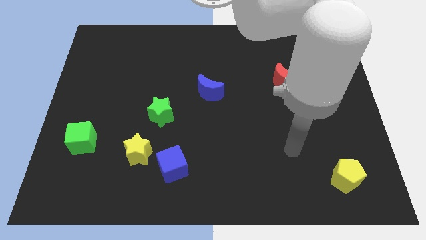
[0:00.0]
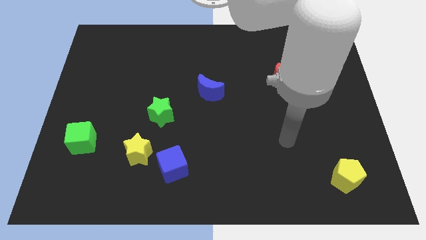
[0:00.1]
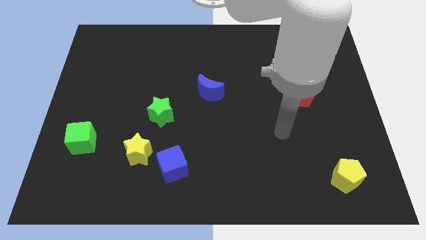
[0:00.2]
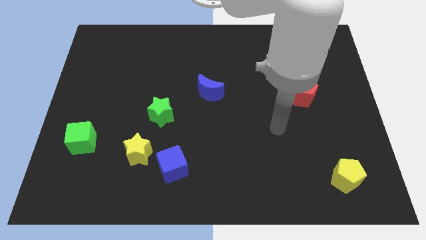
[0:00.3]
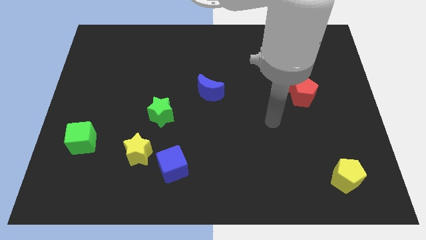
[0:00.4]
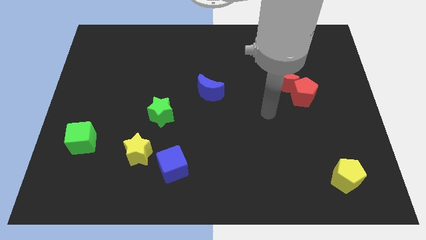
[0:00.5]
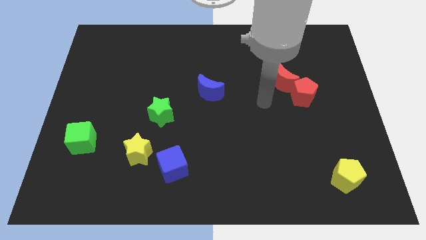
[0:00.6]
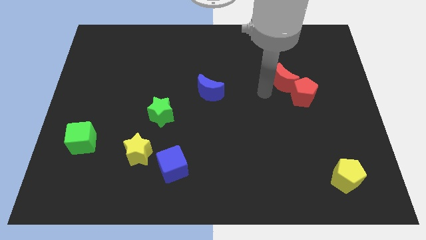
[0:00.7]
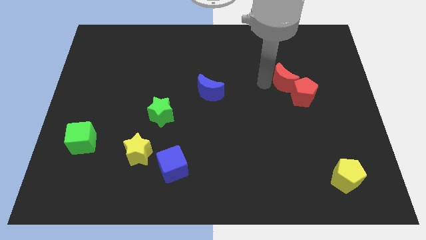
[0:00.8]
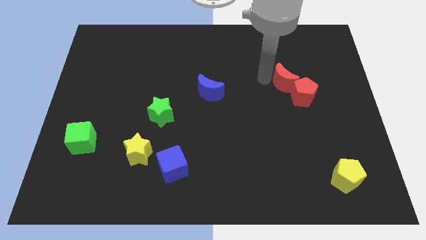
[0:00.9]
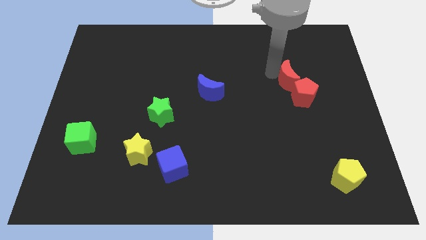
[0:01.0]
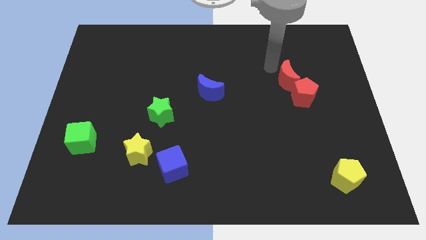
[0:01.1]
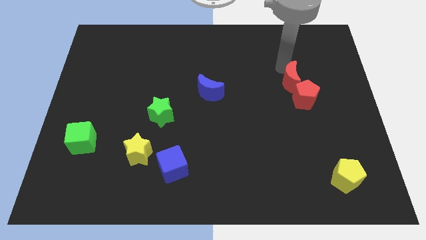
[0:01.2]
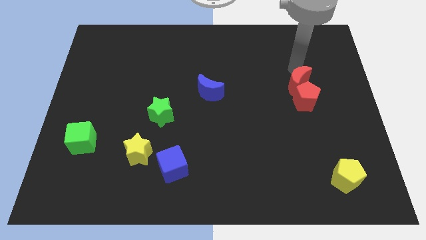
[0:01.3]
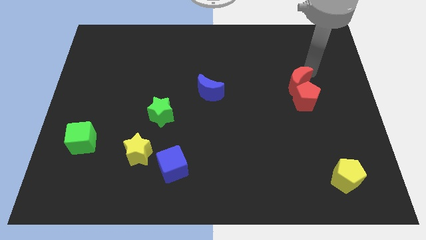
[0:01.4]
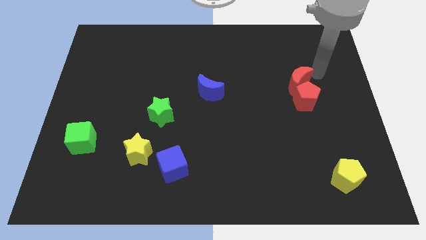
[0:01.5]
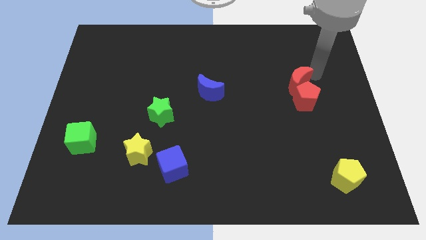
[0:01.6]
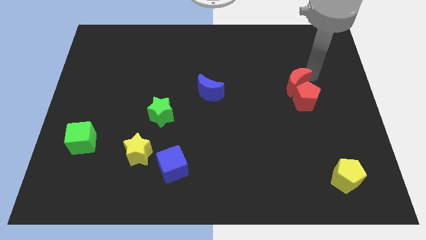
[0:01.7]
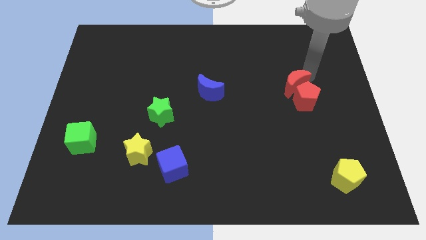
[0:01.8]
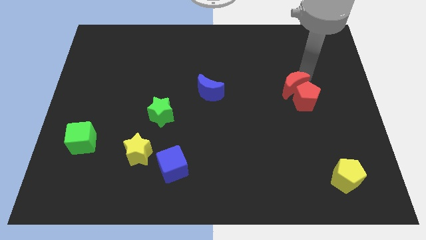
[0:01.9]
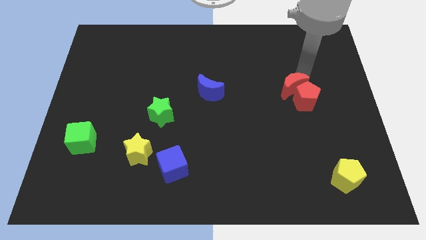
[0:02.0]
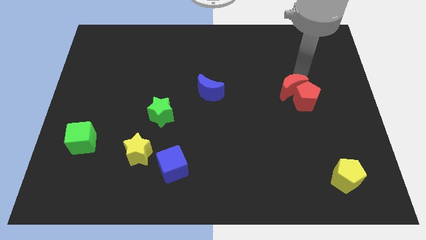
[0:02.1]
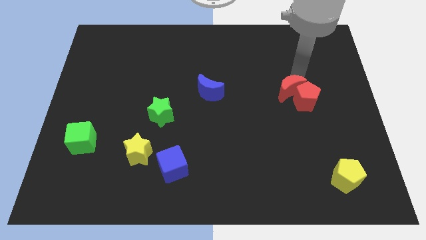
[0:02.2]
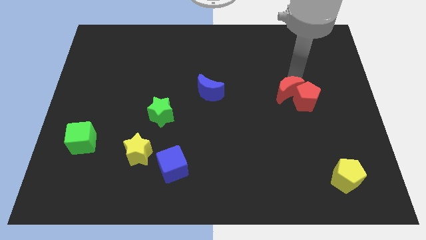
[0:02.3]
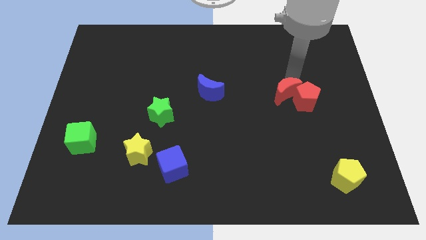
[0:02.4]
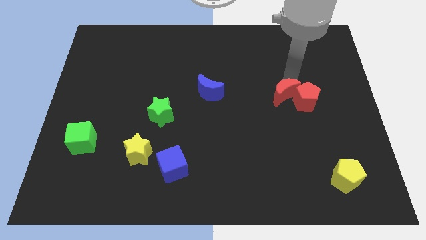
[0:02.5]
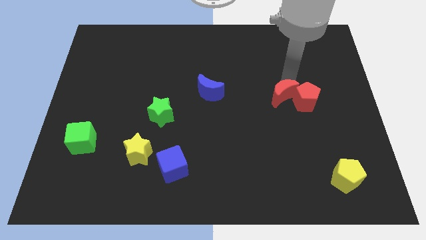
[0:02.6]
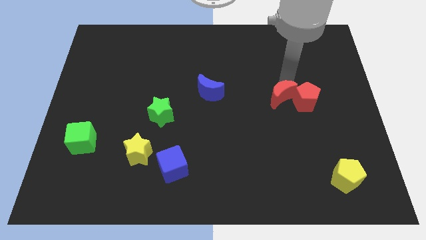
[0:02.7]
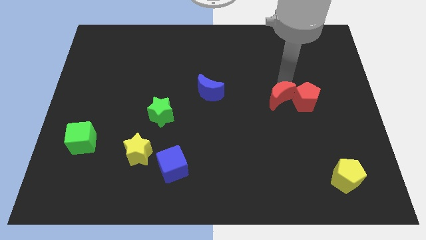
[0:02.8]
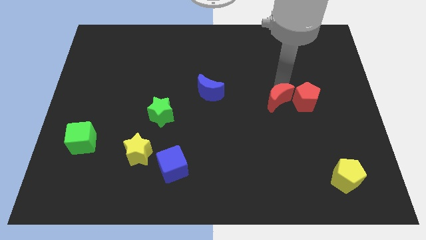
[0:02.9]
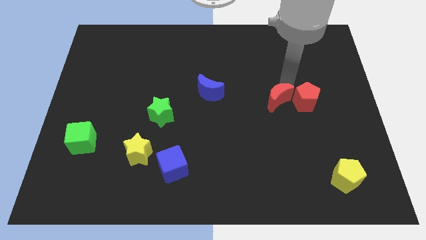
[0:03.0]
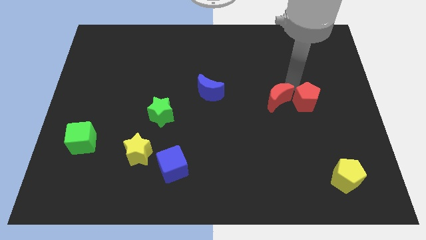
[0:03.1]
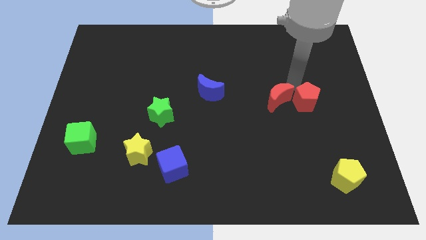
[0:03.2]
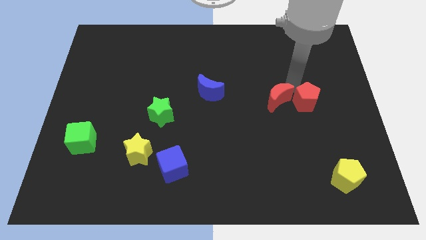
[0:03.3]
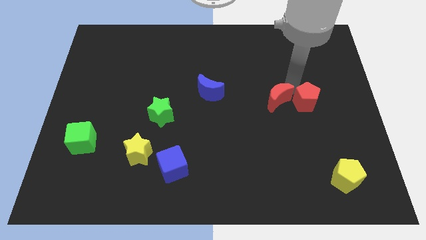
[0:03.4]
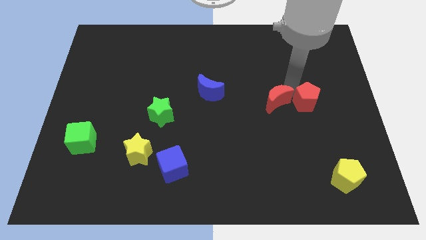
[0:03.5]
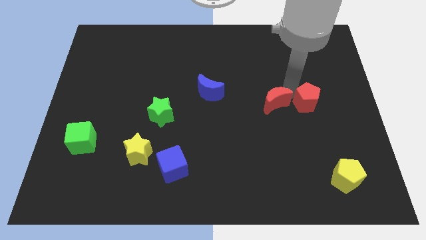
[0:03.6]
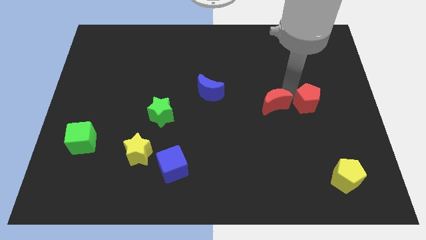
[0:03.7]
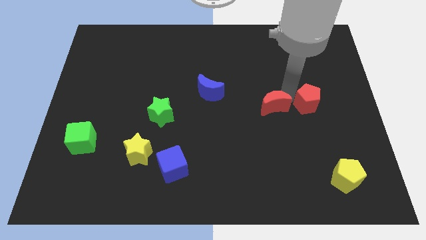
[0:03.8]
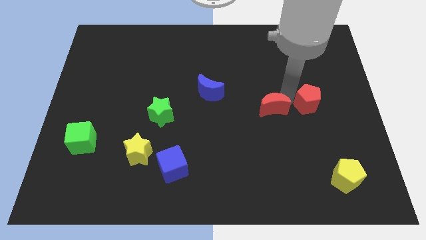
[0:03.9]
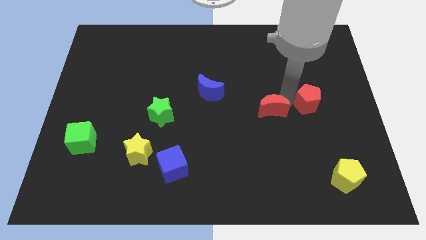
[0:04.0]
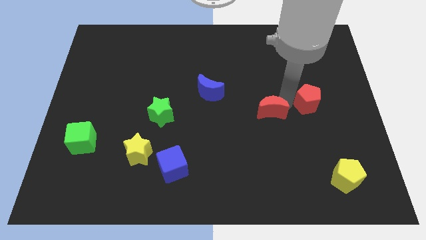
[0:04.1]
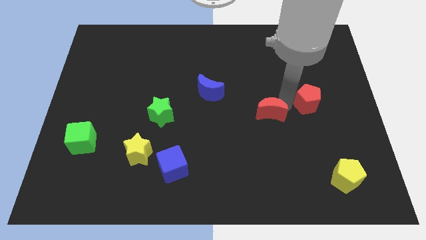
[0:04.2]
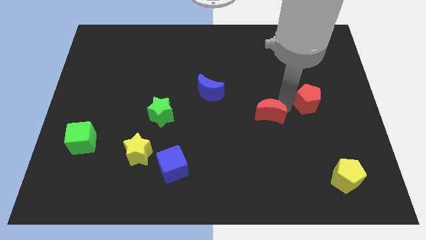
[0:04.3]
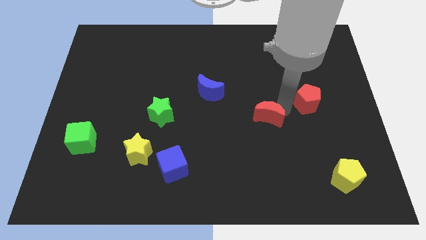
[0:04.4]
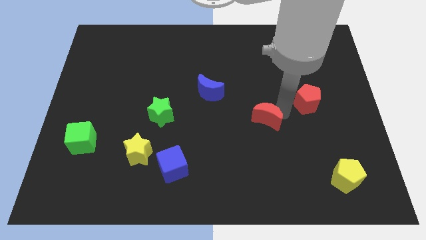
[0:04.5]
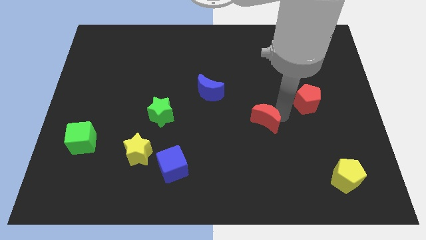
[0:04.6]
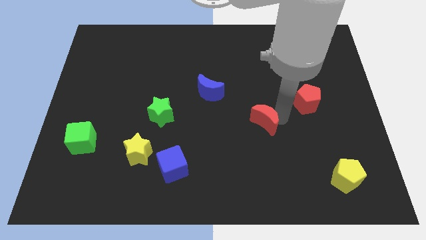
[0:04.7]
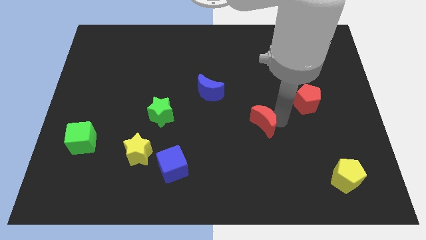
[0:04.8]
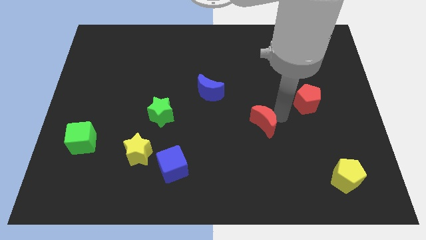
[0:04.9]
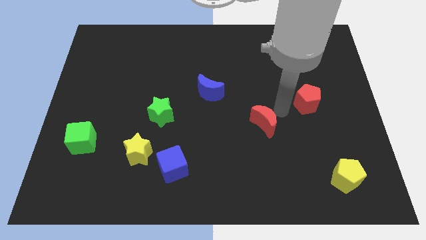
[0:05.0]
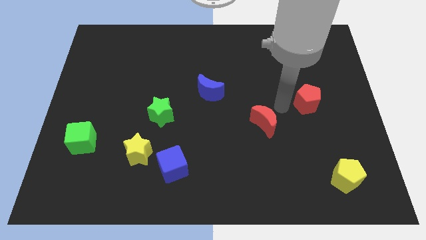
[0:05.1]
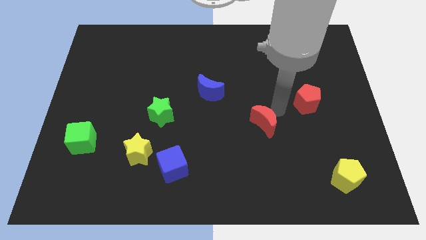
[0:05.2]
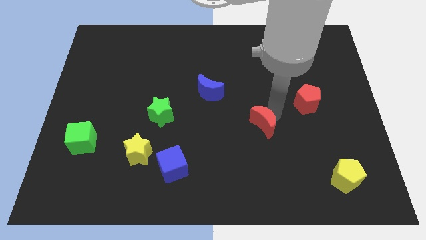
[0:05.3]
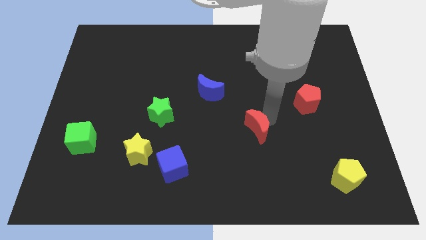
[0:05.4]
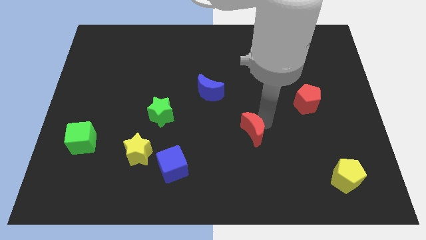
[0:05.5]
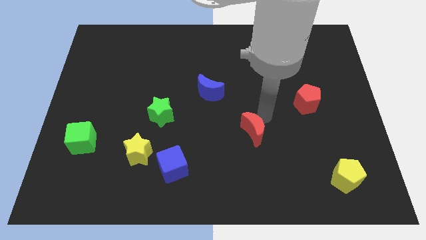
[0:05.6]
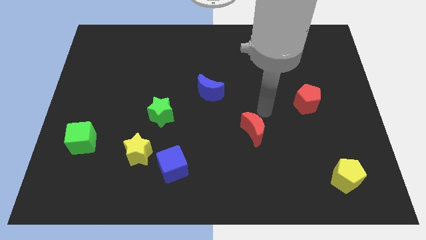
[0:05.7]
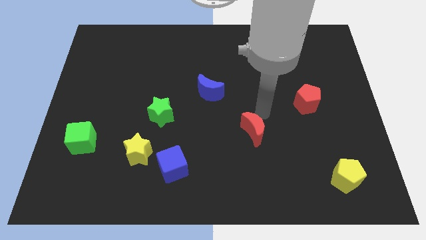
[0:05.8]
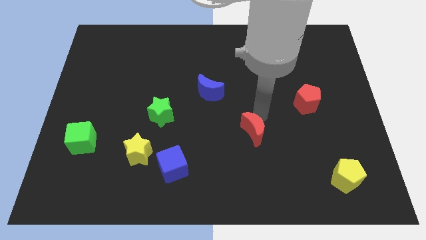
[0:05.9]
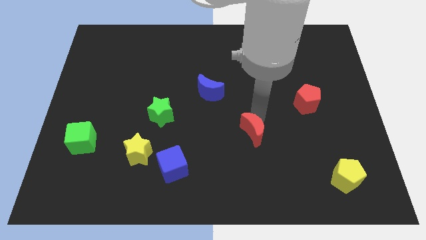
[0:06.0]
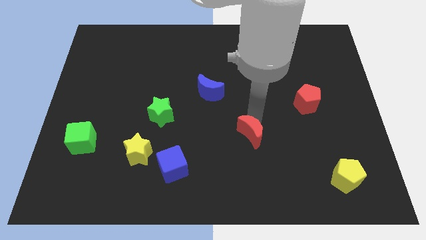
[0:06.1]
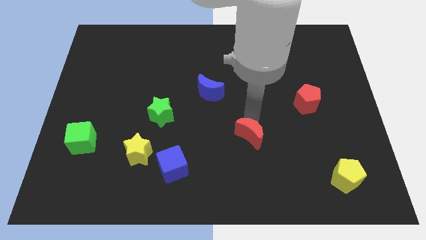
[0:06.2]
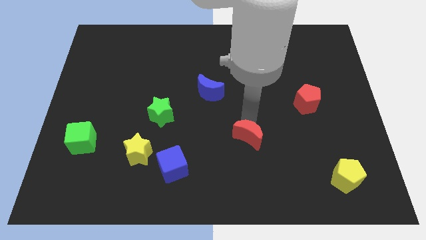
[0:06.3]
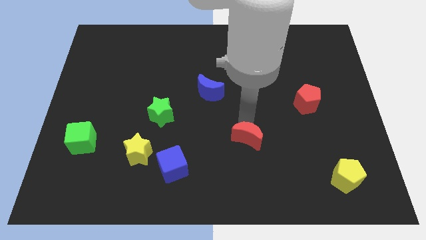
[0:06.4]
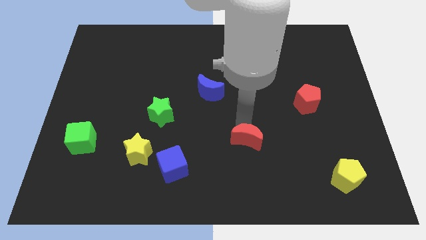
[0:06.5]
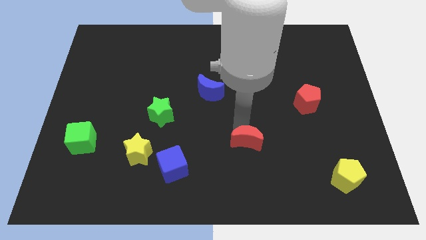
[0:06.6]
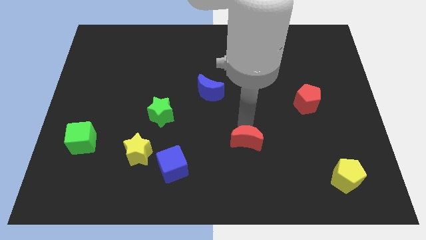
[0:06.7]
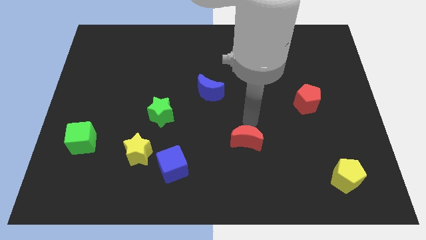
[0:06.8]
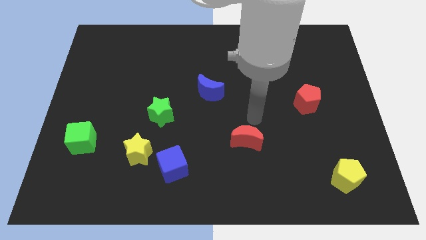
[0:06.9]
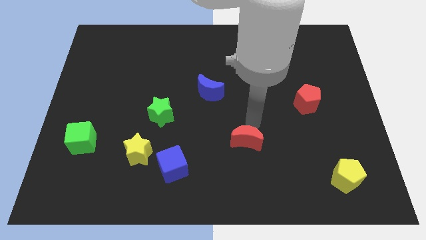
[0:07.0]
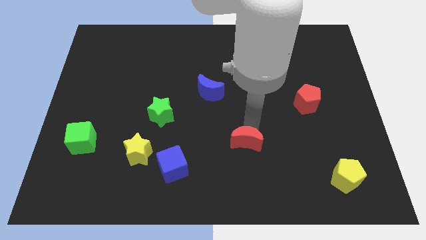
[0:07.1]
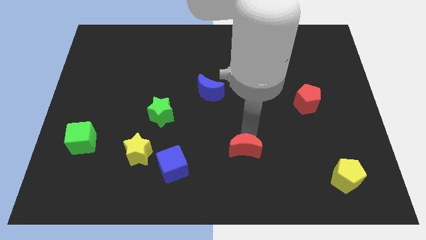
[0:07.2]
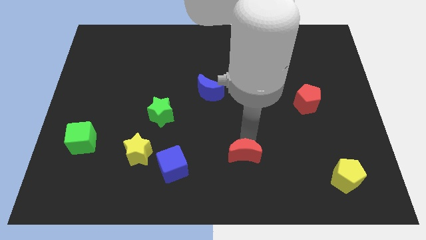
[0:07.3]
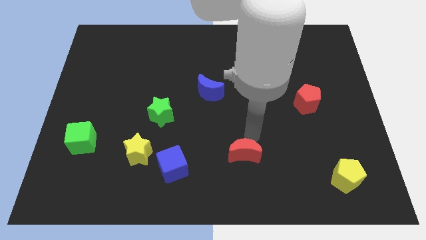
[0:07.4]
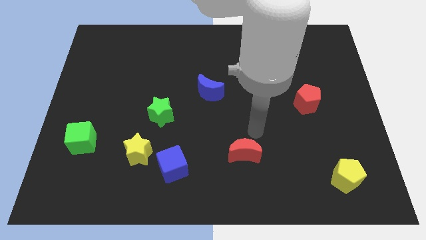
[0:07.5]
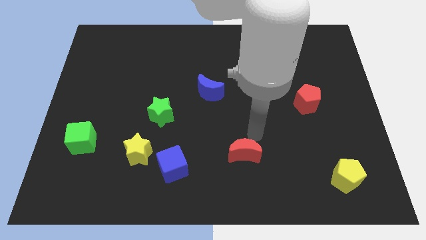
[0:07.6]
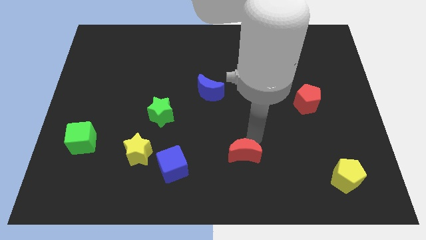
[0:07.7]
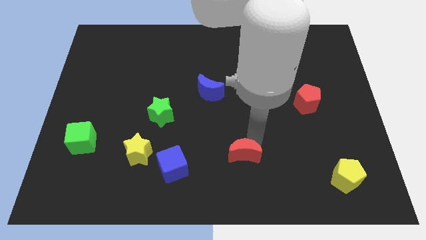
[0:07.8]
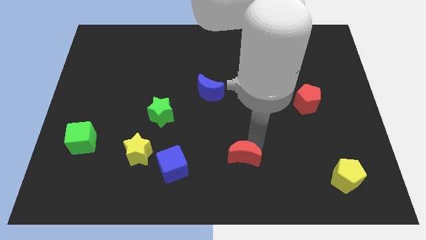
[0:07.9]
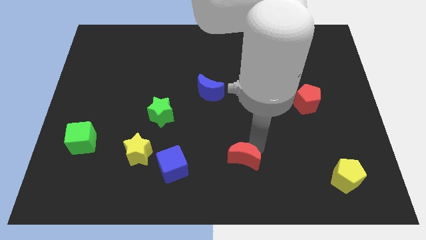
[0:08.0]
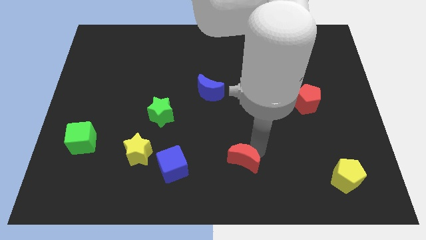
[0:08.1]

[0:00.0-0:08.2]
slide the red moon to the bottom
